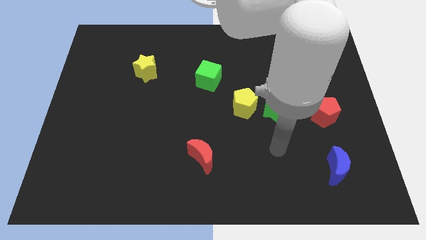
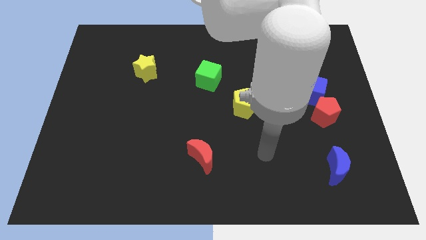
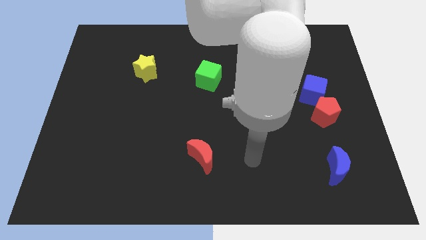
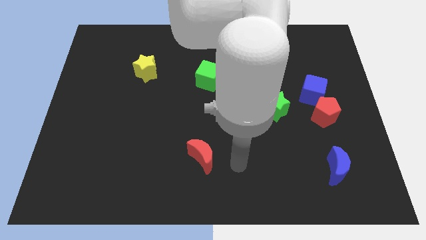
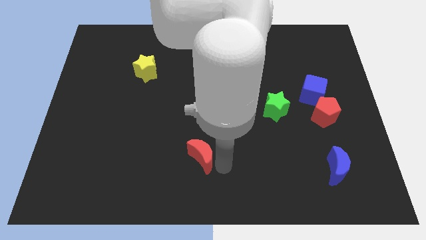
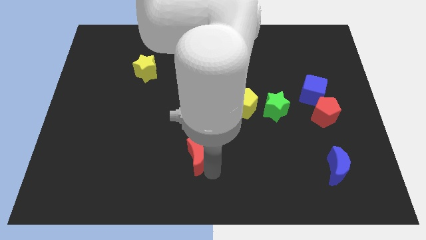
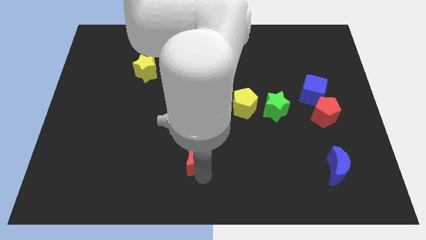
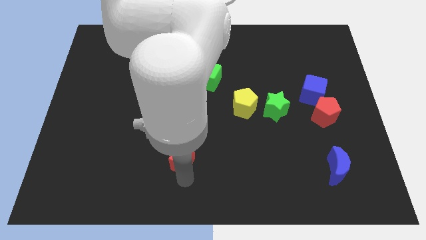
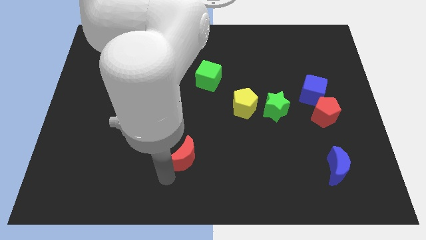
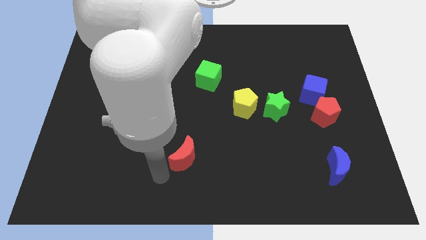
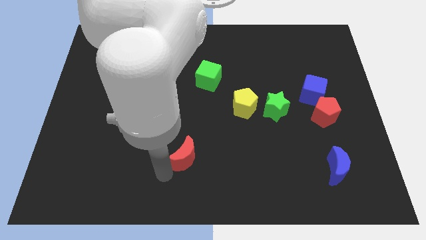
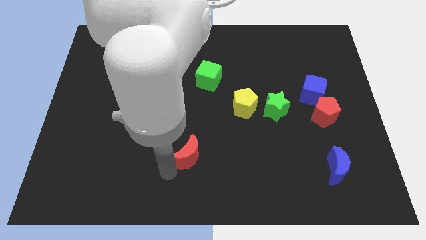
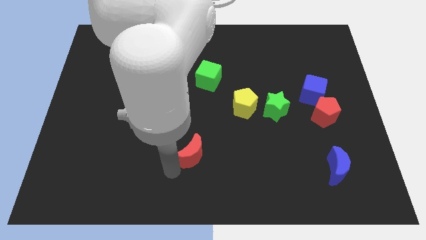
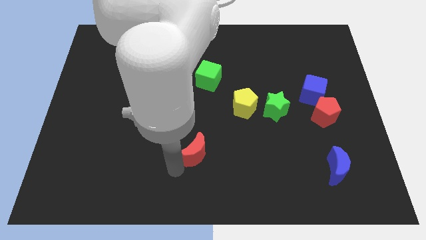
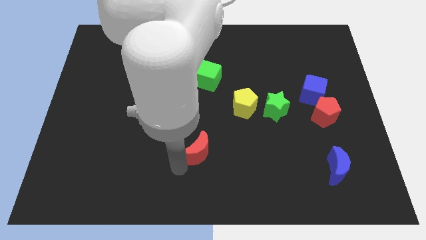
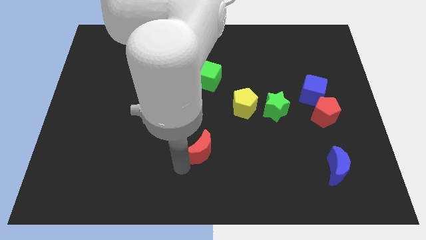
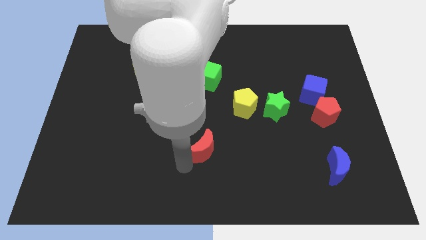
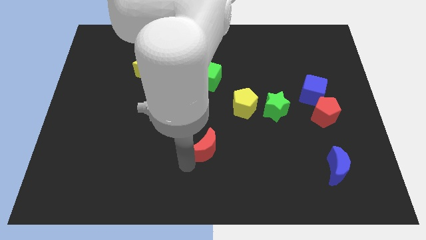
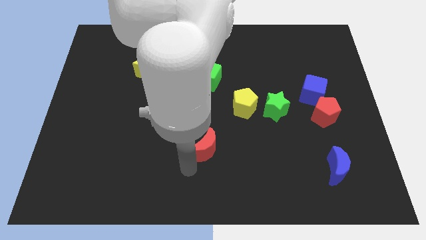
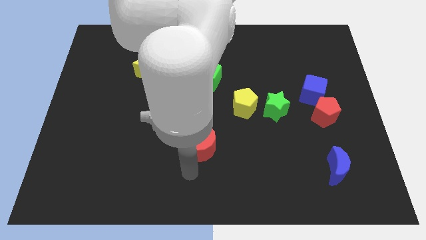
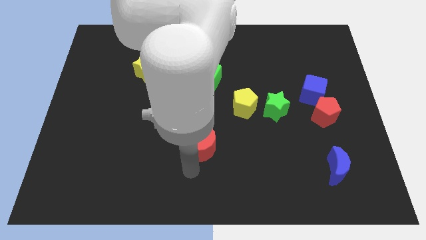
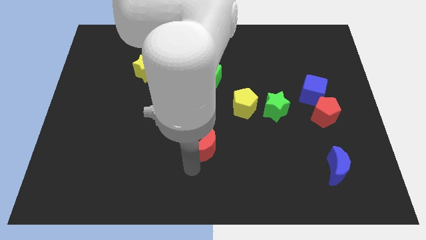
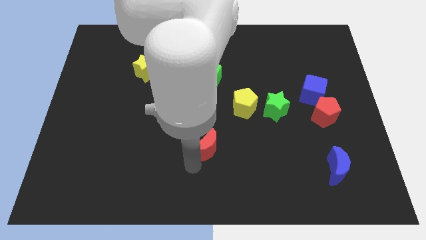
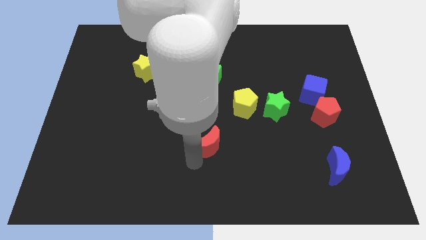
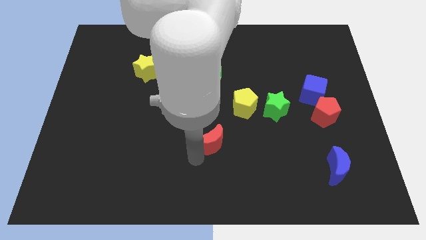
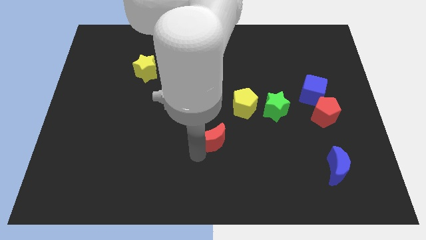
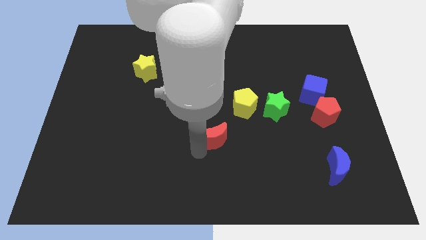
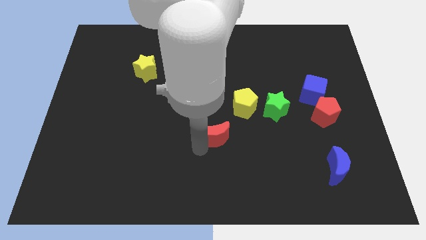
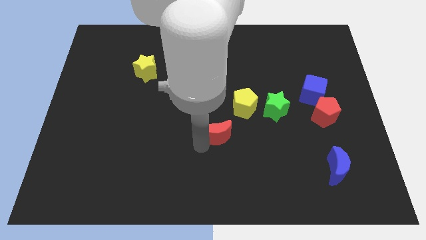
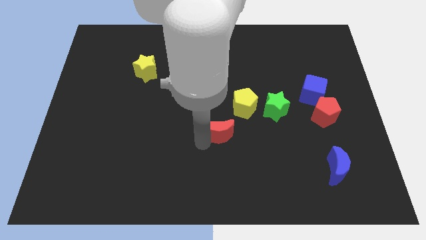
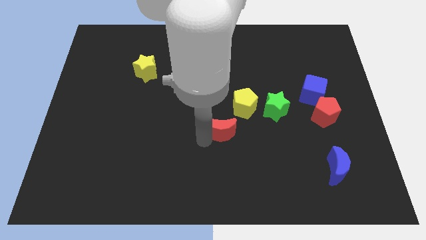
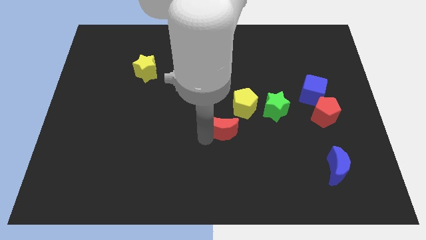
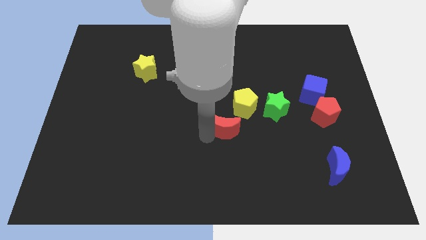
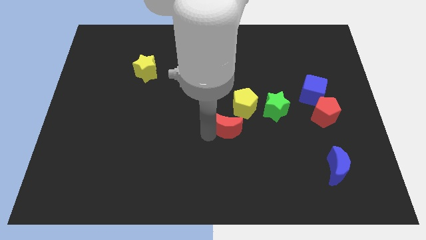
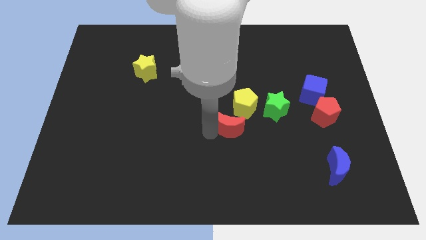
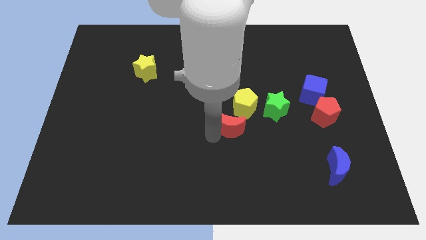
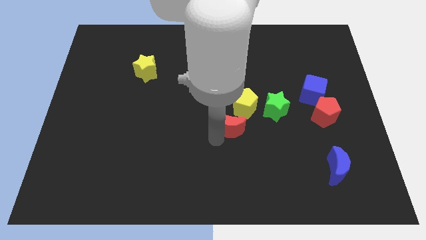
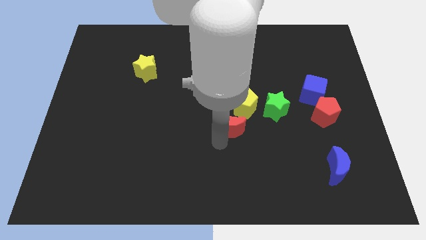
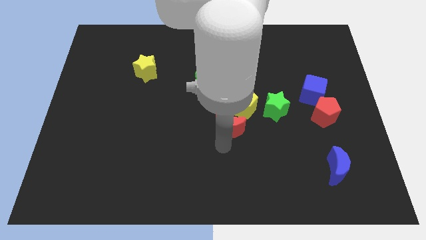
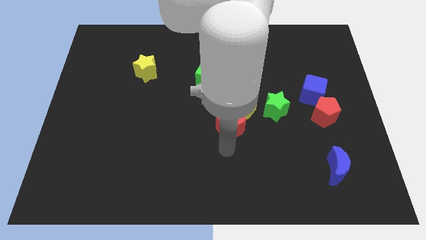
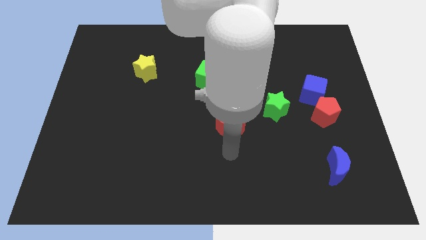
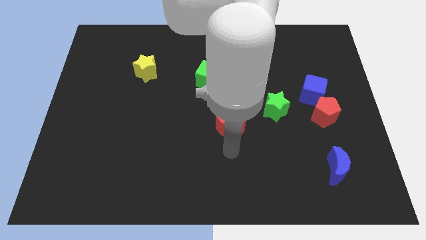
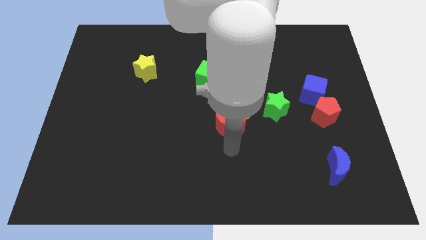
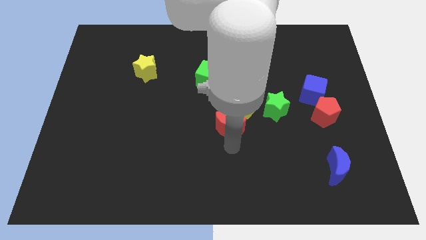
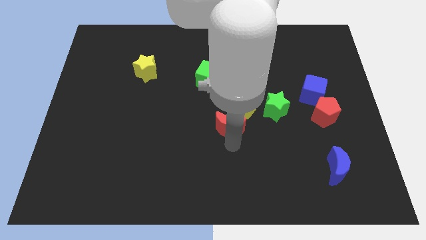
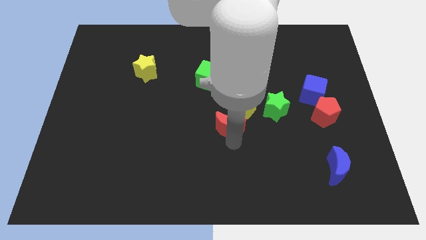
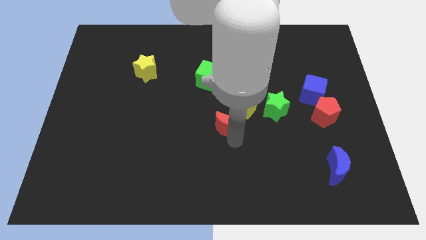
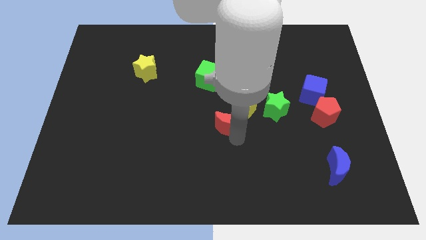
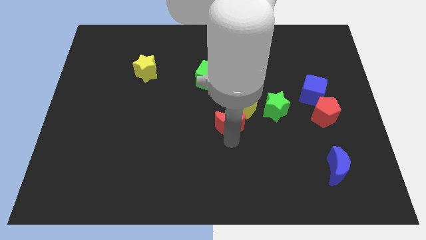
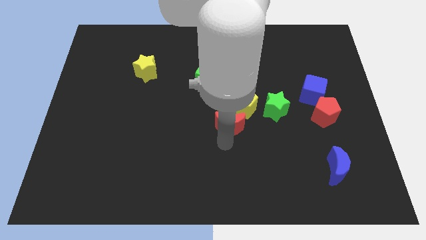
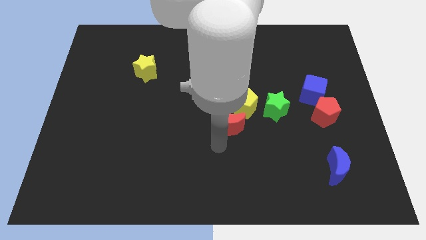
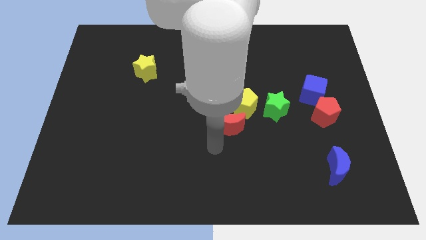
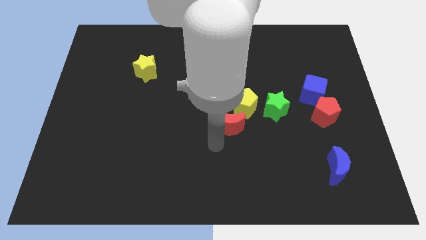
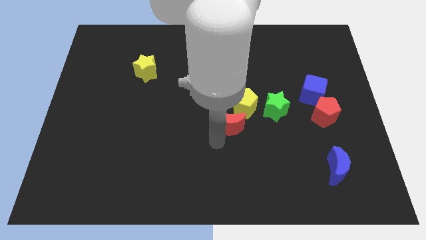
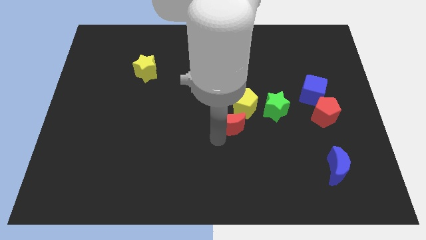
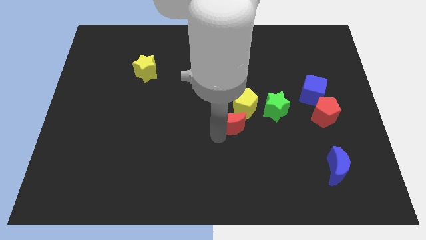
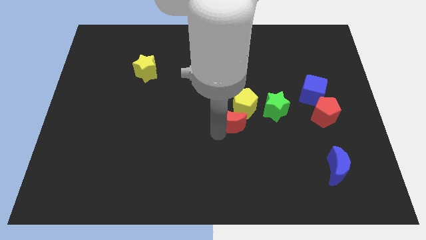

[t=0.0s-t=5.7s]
slide the red moon to the yellow pentagon

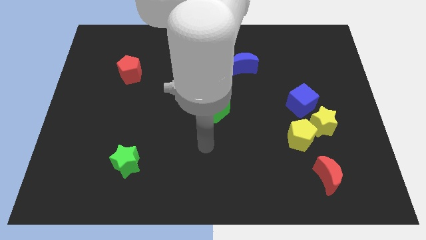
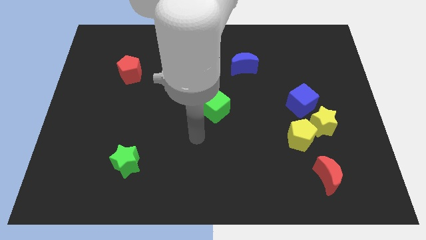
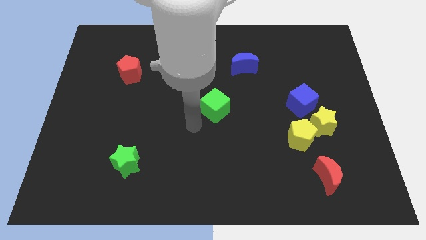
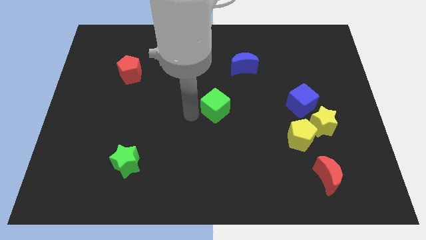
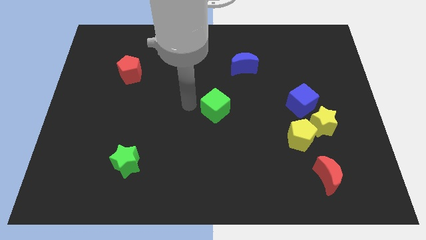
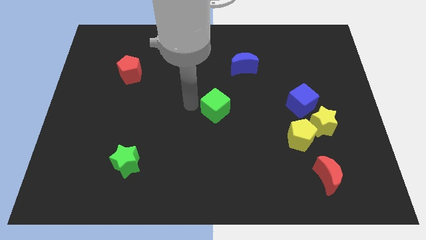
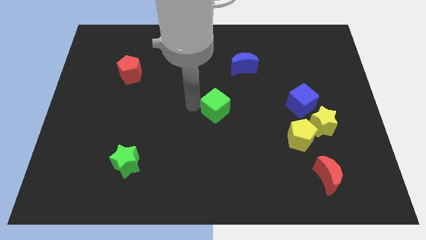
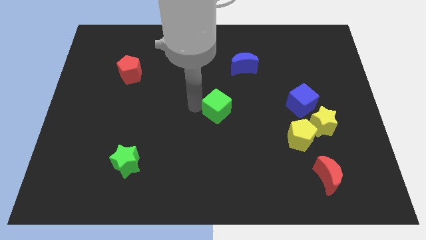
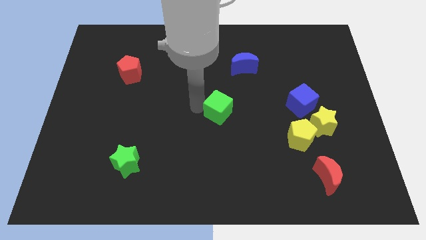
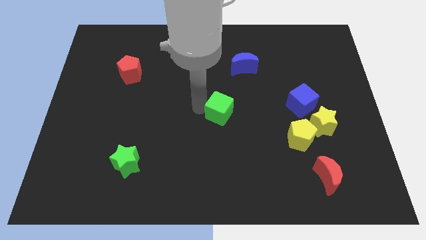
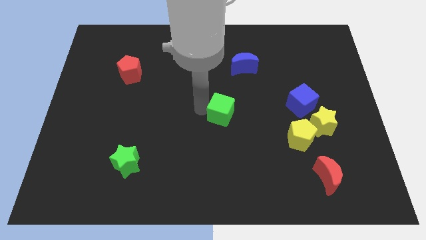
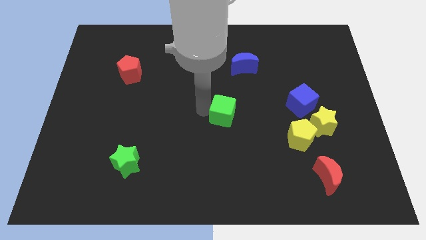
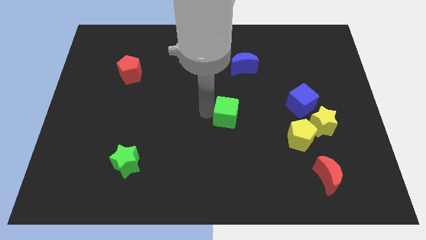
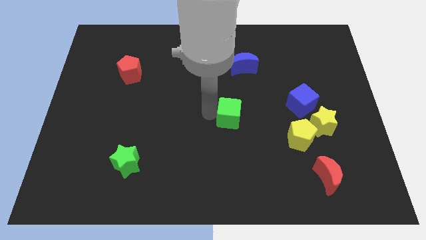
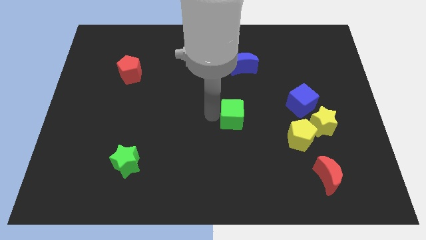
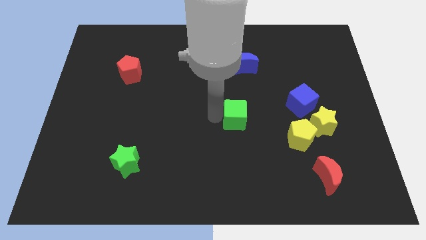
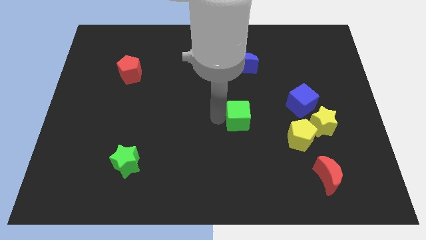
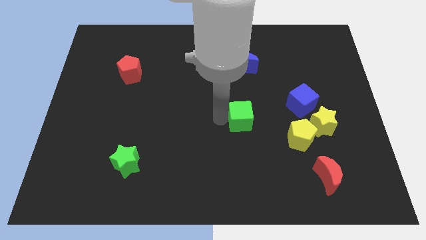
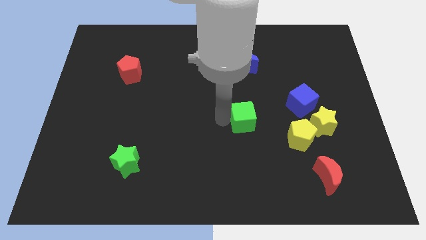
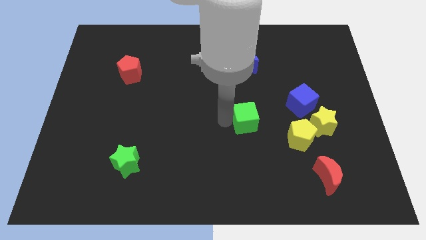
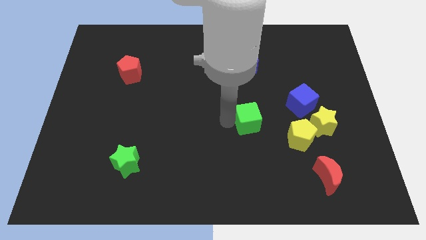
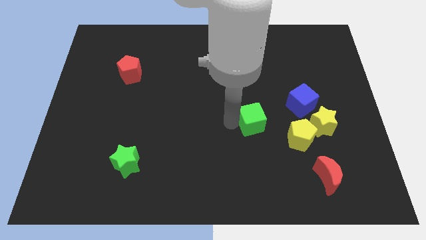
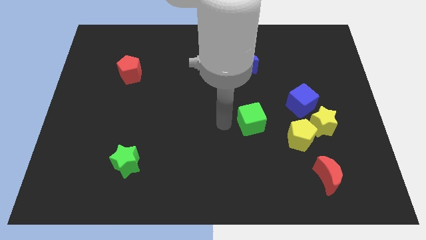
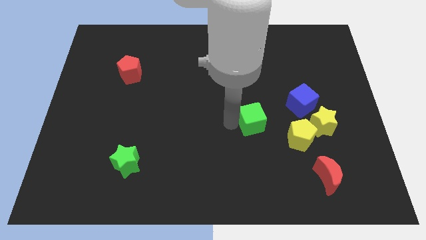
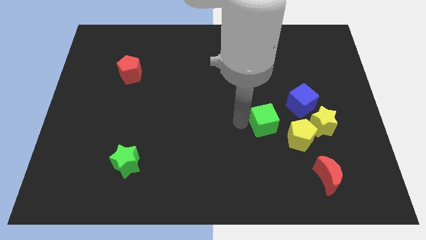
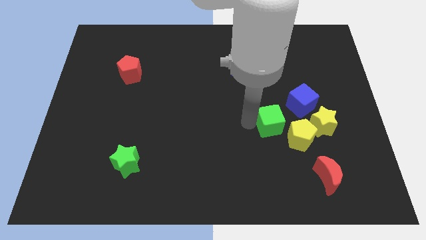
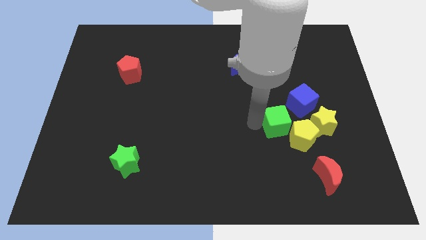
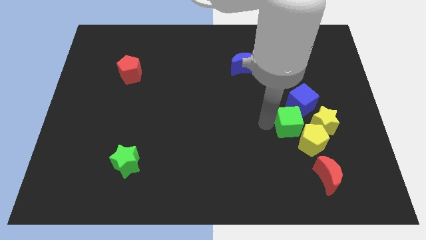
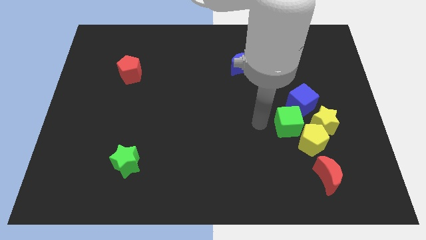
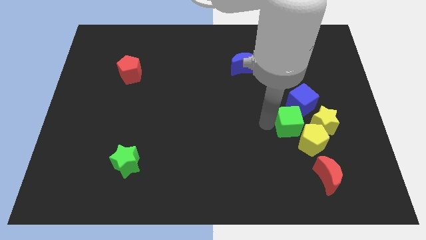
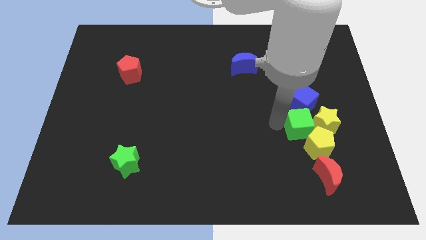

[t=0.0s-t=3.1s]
move the green cube next to the yellow star
